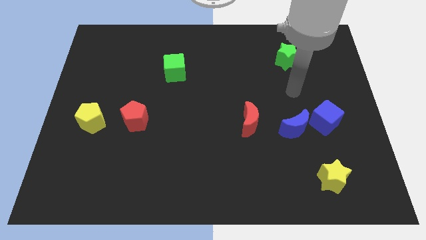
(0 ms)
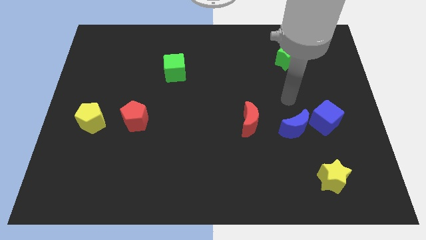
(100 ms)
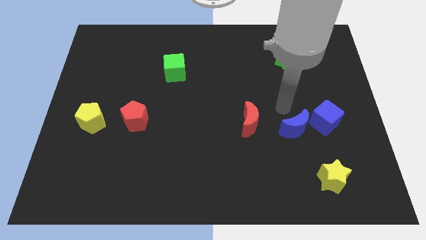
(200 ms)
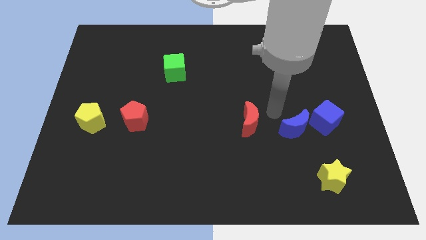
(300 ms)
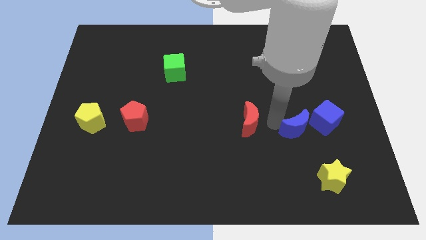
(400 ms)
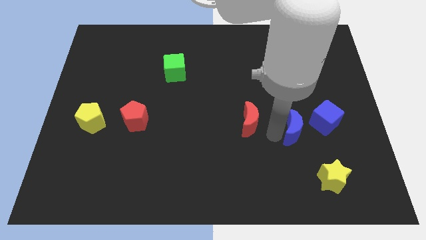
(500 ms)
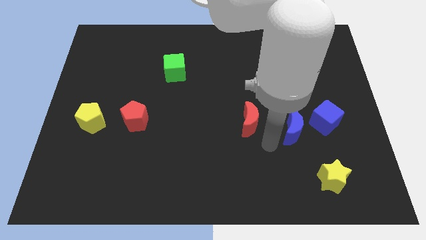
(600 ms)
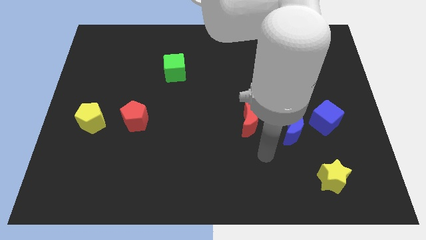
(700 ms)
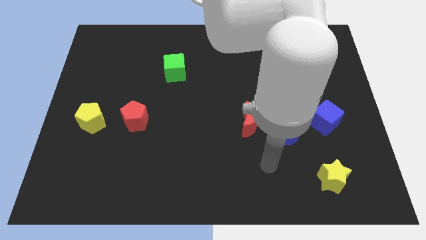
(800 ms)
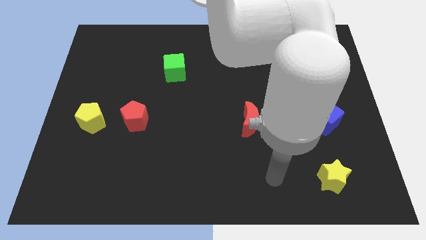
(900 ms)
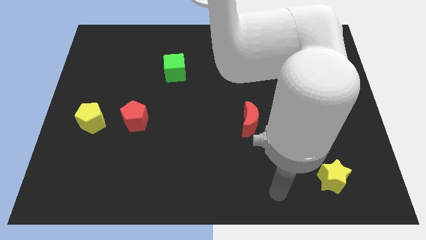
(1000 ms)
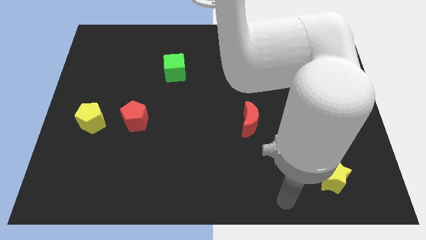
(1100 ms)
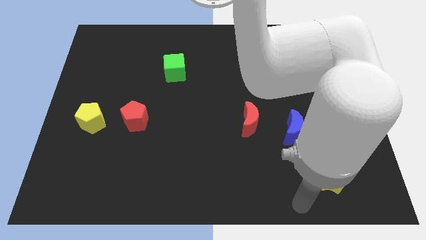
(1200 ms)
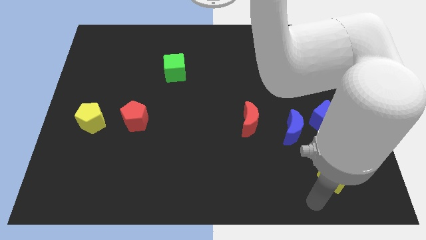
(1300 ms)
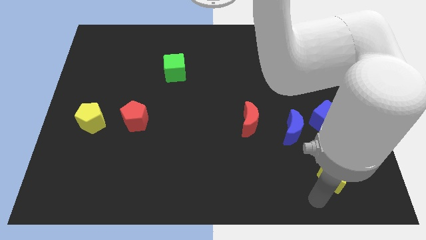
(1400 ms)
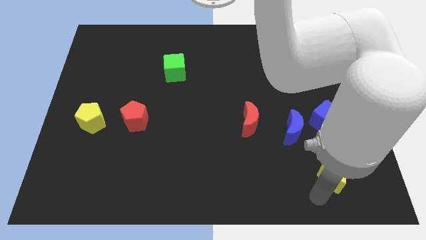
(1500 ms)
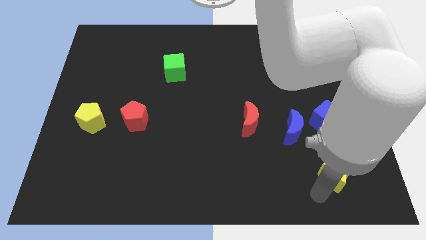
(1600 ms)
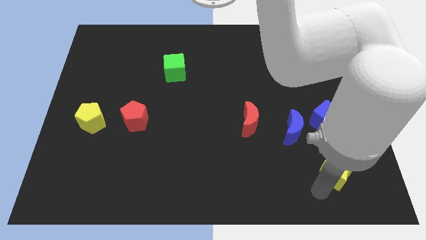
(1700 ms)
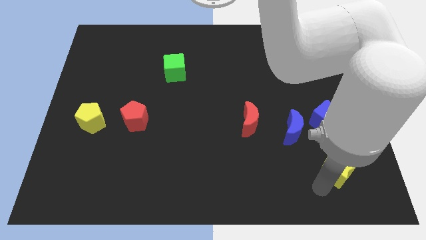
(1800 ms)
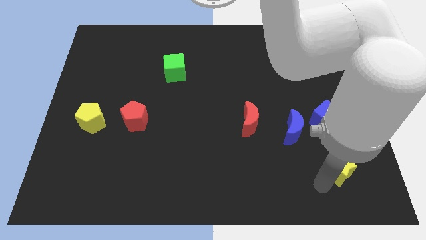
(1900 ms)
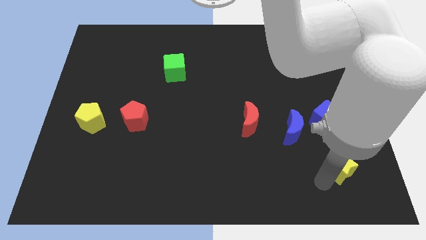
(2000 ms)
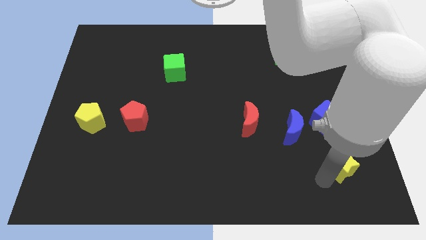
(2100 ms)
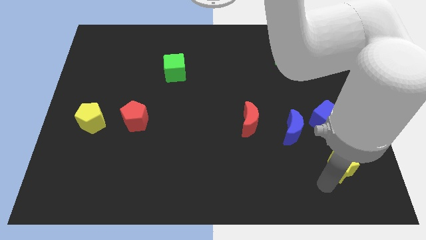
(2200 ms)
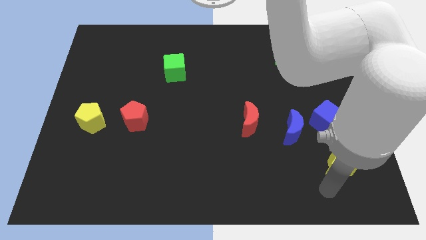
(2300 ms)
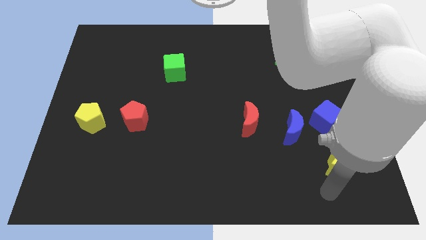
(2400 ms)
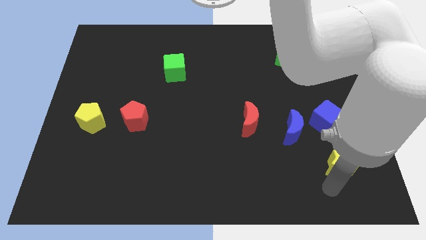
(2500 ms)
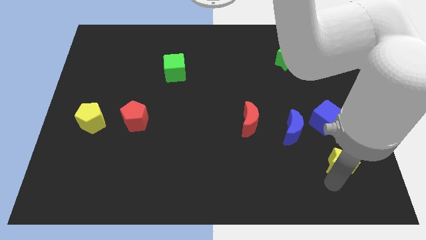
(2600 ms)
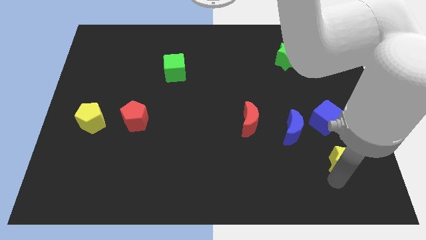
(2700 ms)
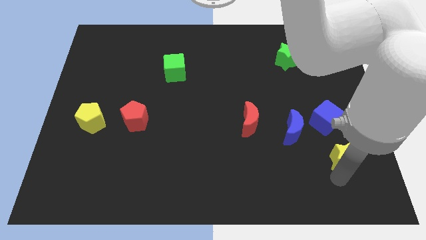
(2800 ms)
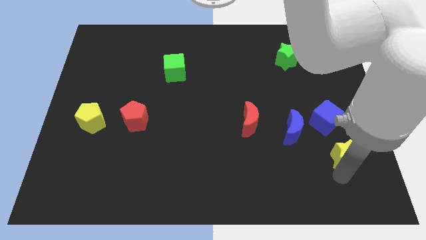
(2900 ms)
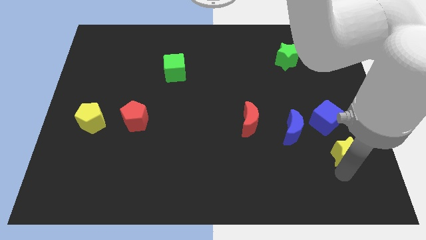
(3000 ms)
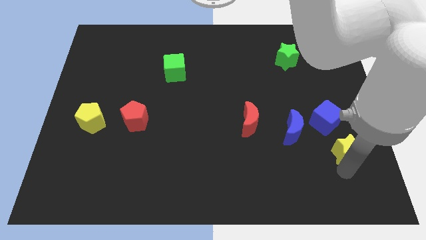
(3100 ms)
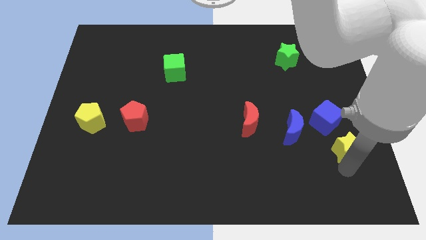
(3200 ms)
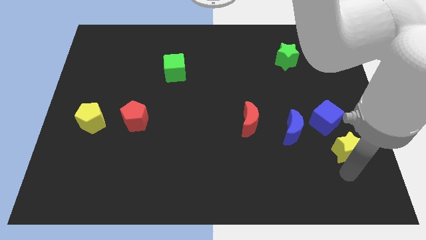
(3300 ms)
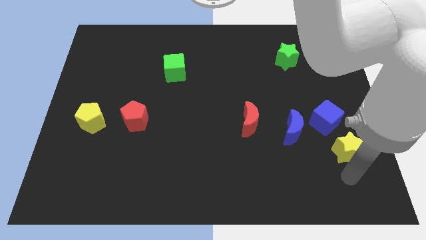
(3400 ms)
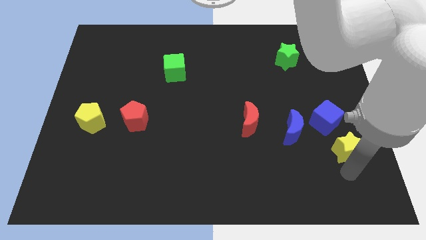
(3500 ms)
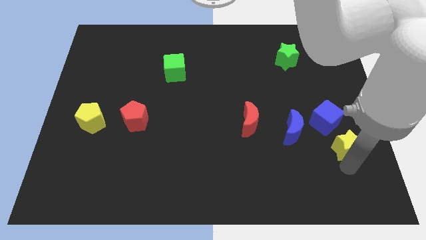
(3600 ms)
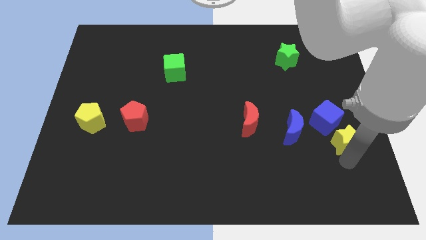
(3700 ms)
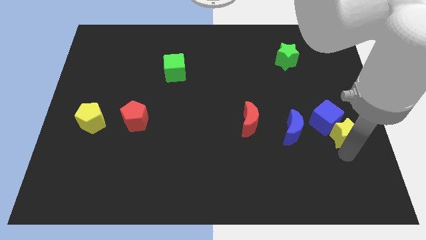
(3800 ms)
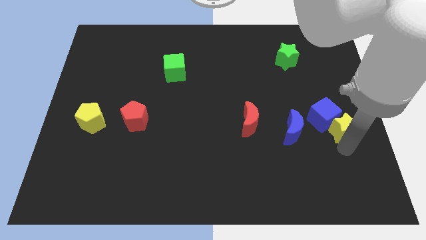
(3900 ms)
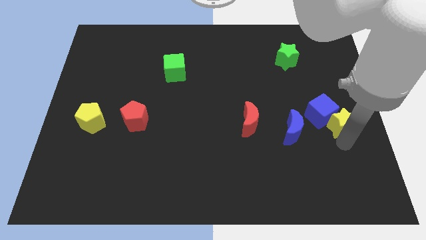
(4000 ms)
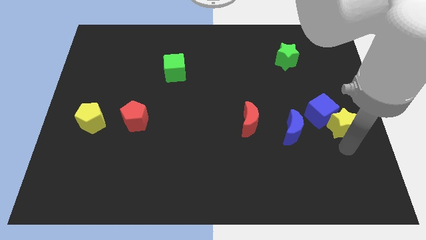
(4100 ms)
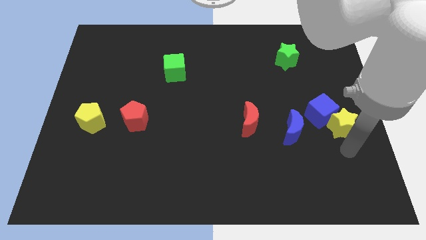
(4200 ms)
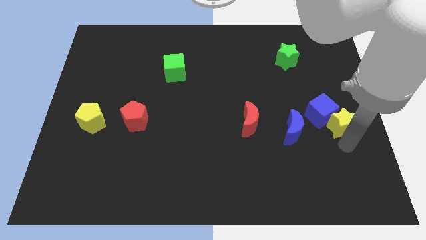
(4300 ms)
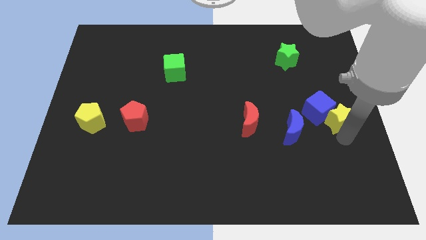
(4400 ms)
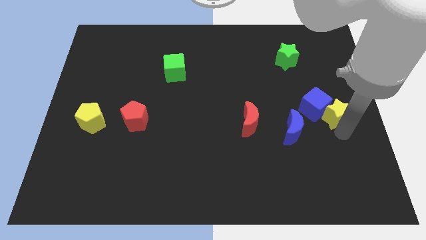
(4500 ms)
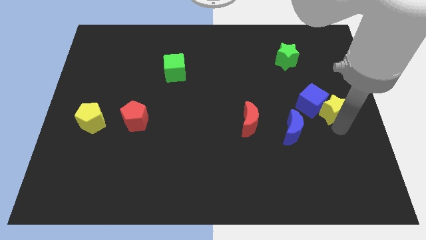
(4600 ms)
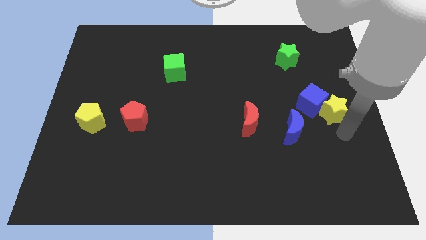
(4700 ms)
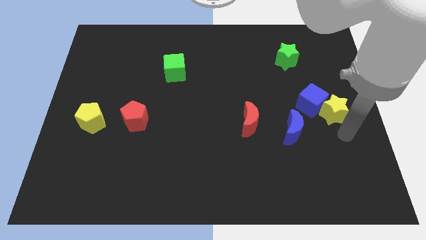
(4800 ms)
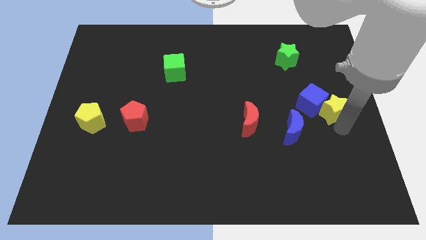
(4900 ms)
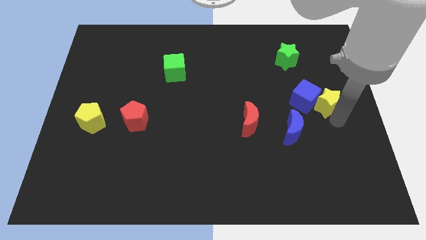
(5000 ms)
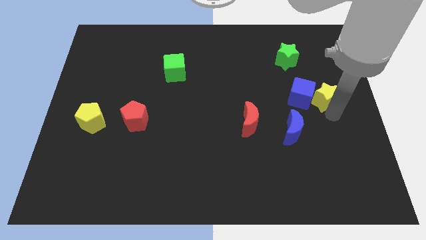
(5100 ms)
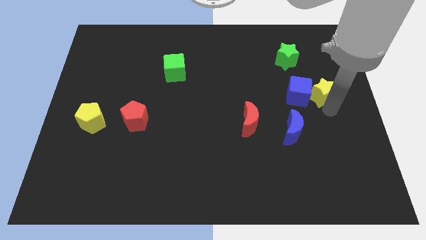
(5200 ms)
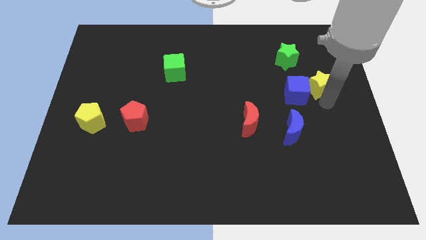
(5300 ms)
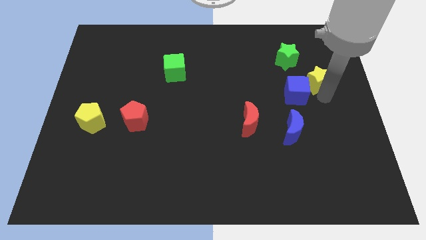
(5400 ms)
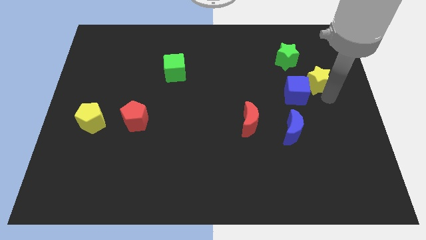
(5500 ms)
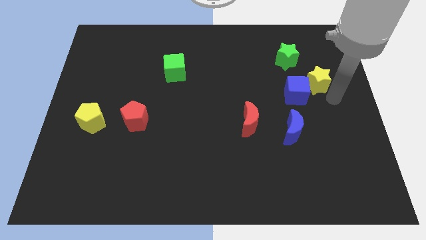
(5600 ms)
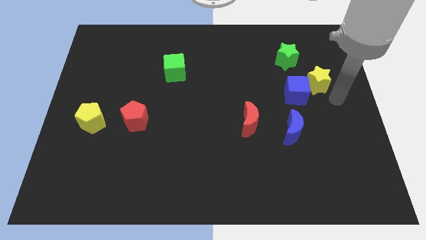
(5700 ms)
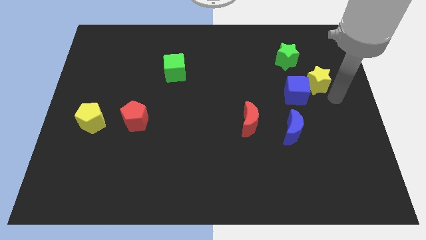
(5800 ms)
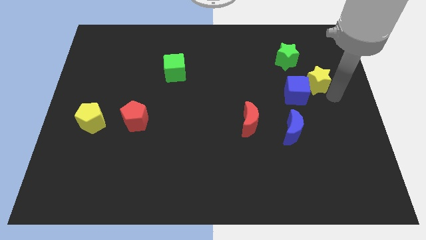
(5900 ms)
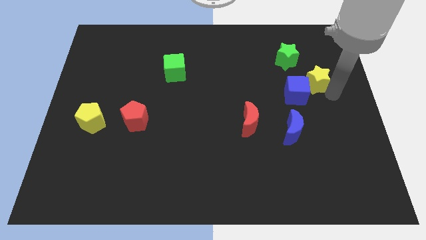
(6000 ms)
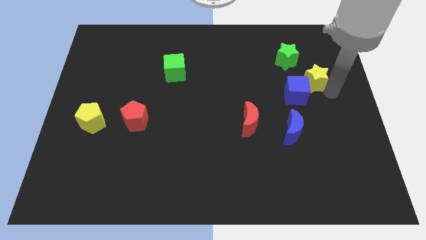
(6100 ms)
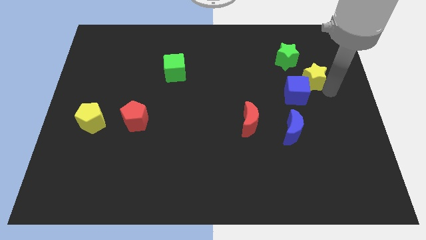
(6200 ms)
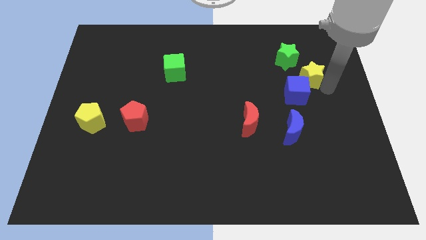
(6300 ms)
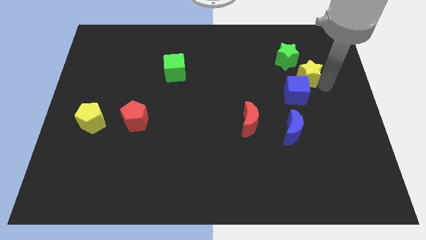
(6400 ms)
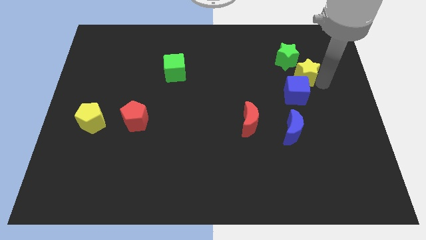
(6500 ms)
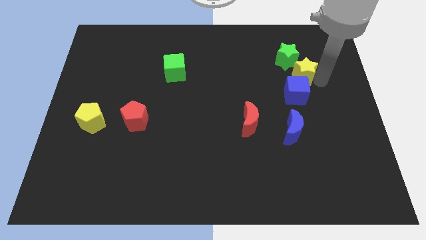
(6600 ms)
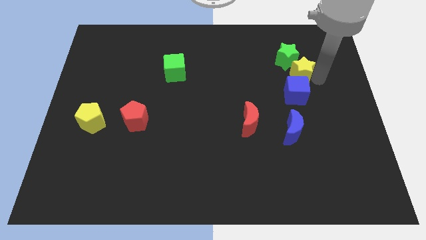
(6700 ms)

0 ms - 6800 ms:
push the yellow star next to the green star

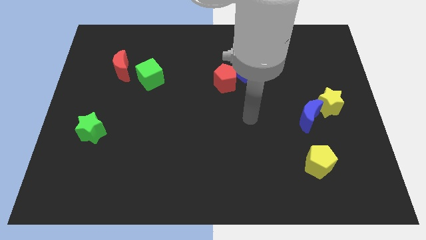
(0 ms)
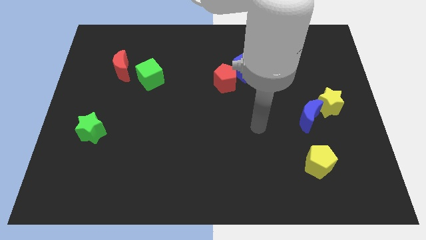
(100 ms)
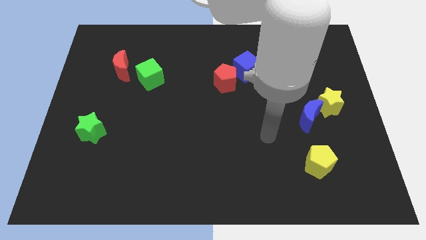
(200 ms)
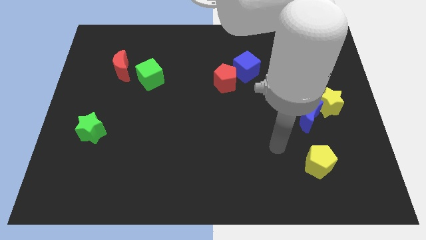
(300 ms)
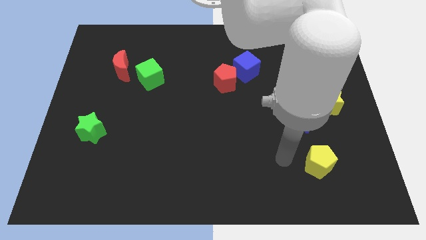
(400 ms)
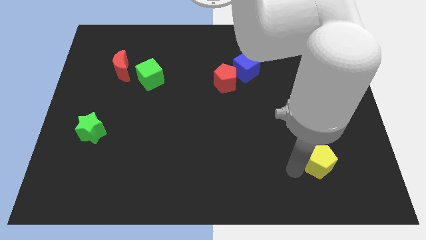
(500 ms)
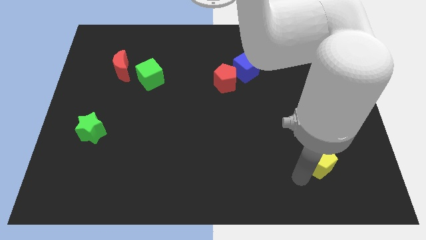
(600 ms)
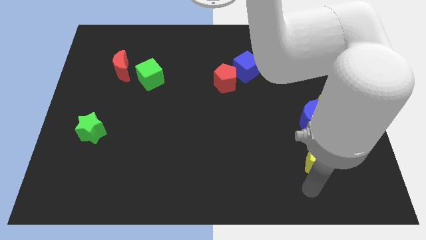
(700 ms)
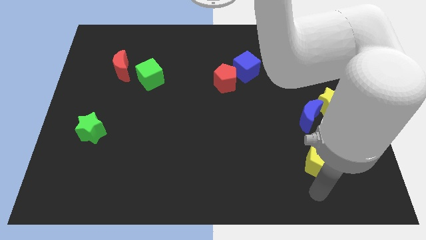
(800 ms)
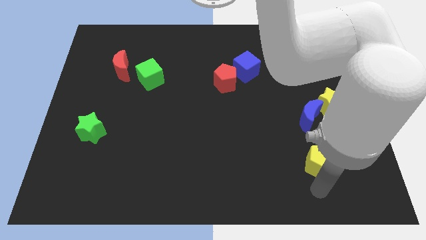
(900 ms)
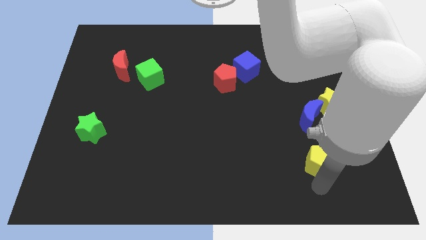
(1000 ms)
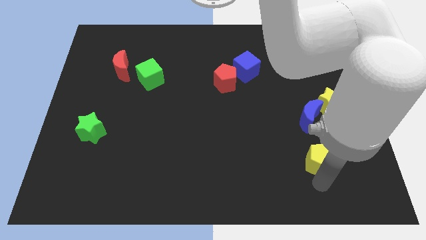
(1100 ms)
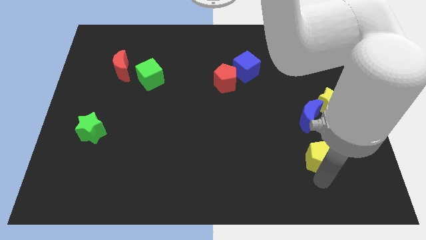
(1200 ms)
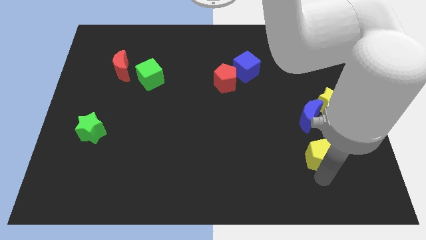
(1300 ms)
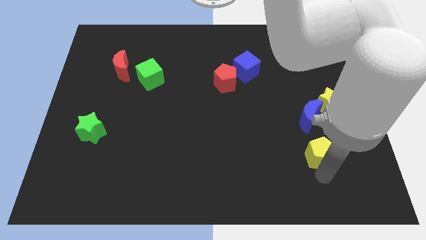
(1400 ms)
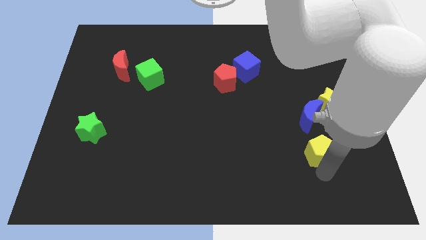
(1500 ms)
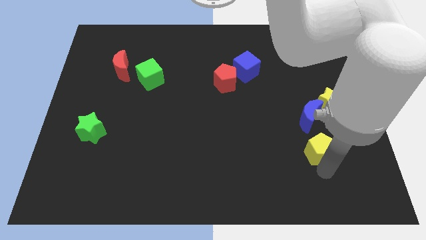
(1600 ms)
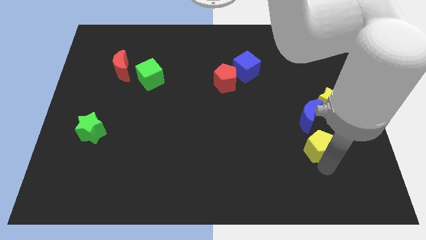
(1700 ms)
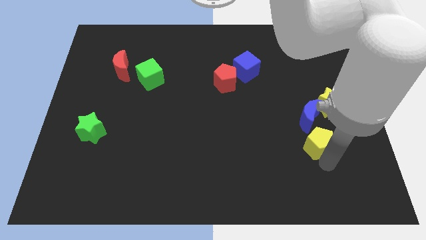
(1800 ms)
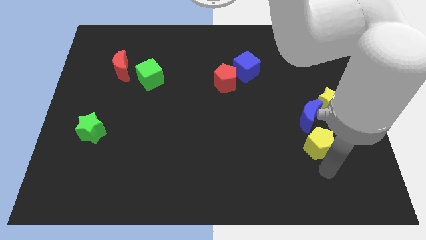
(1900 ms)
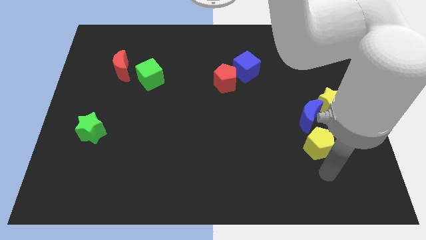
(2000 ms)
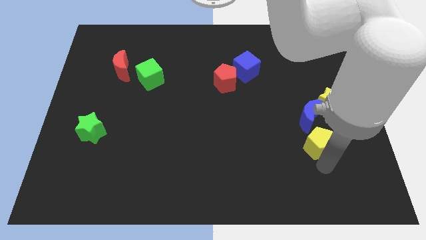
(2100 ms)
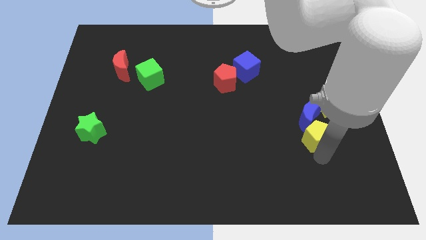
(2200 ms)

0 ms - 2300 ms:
move the yellow pentagon towards the blue moon
